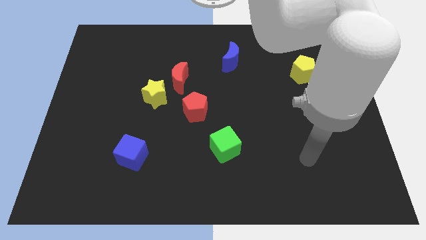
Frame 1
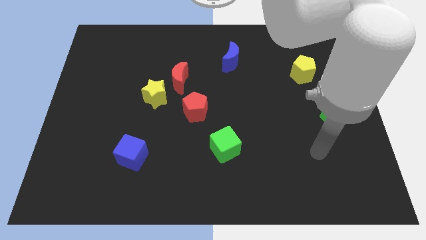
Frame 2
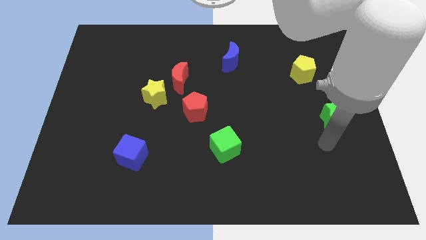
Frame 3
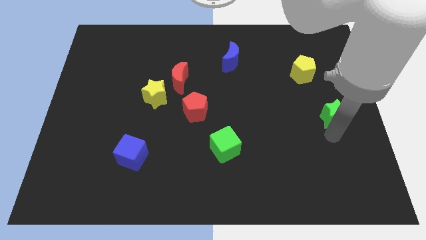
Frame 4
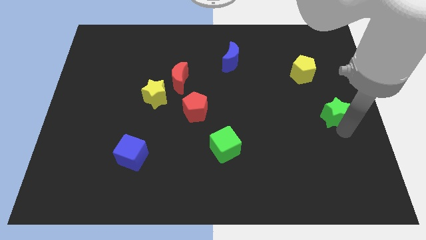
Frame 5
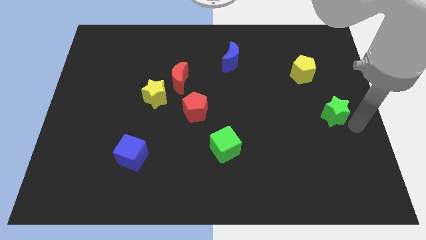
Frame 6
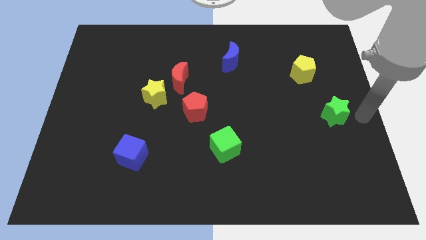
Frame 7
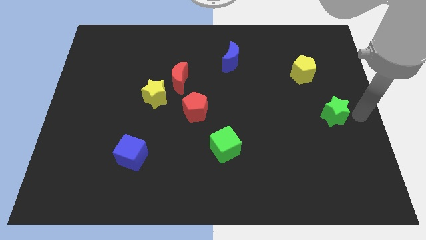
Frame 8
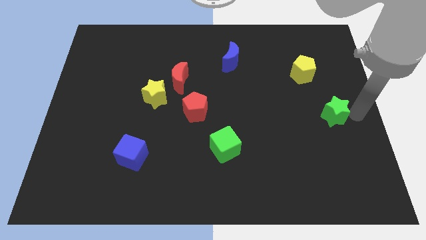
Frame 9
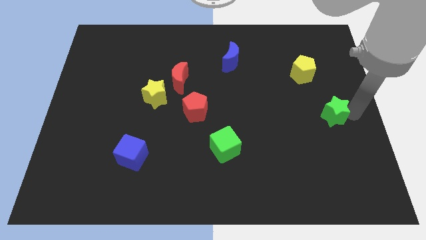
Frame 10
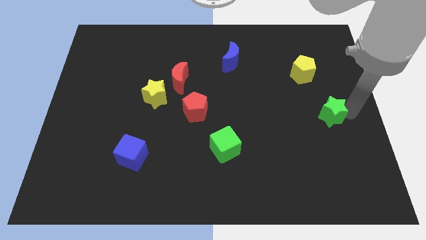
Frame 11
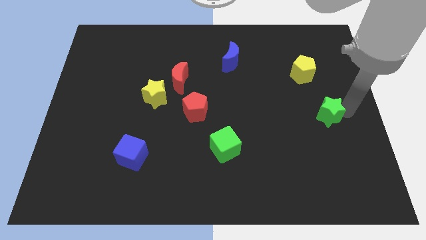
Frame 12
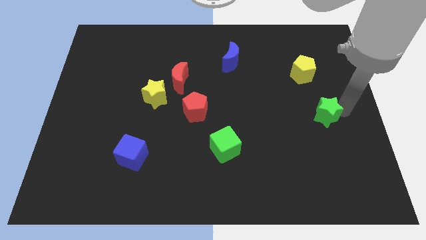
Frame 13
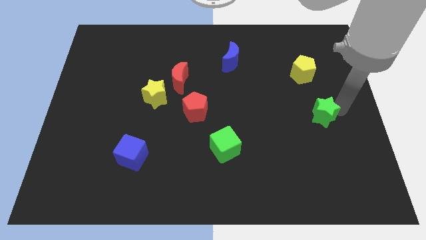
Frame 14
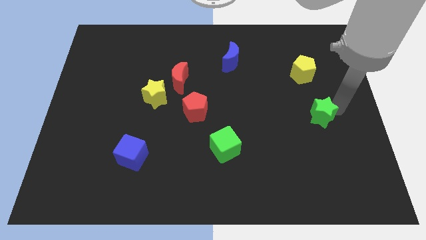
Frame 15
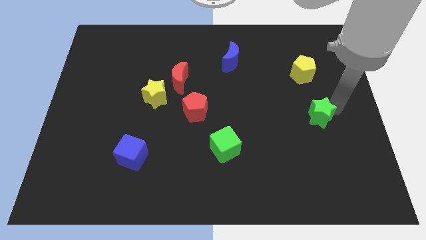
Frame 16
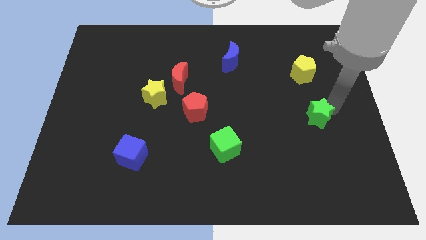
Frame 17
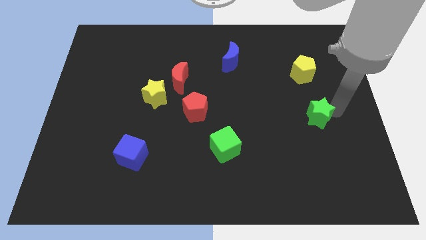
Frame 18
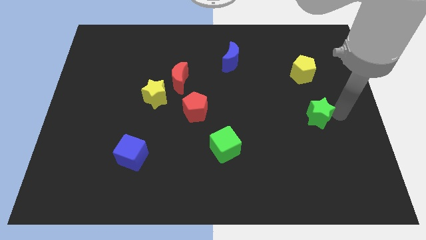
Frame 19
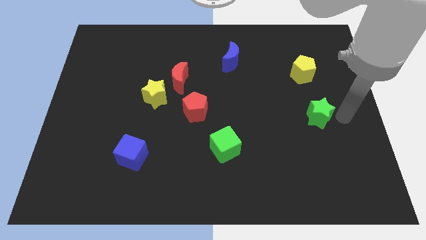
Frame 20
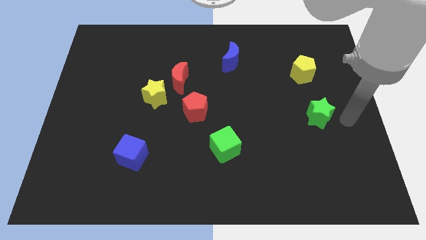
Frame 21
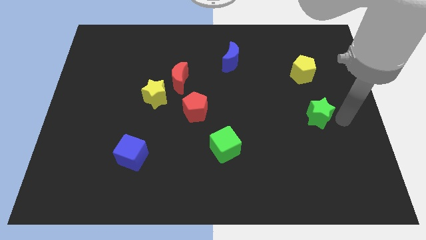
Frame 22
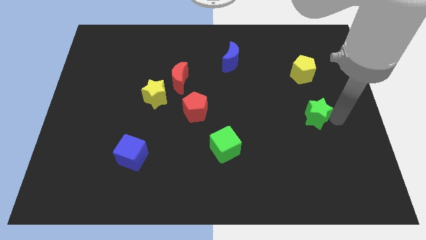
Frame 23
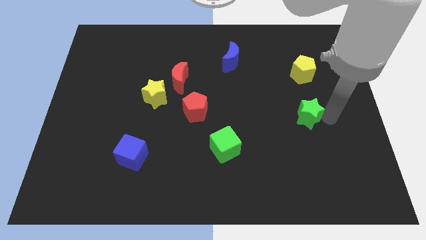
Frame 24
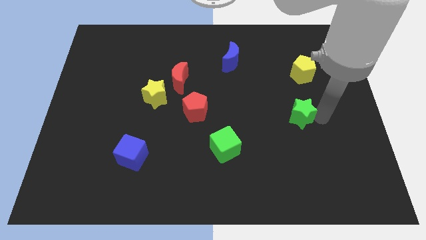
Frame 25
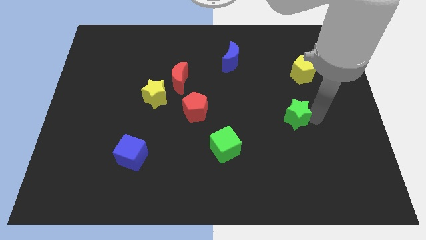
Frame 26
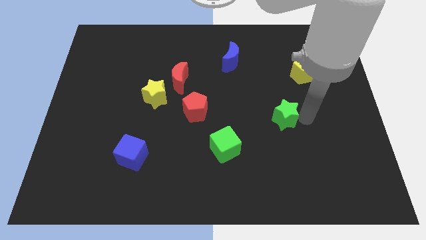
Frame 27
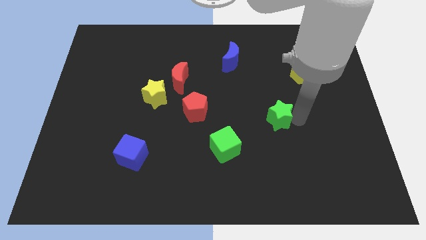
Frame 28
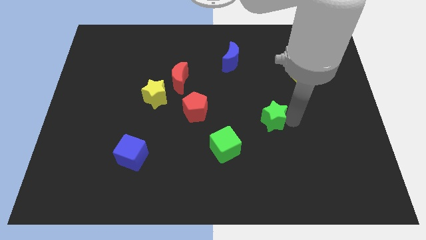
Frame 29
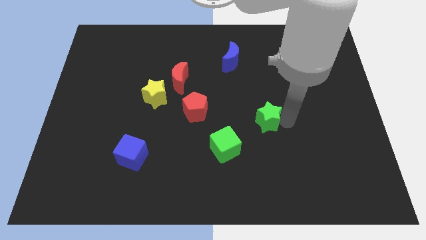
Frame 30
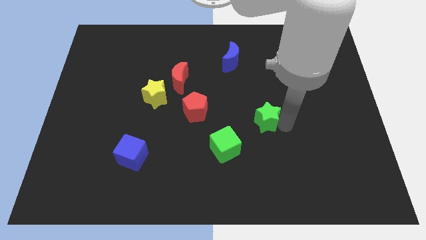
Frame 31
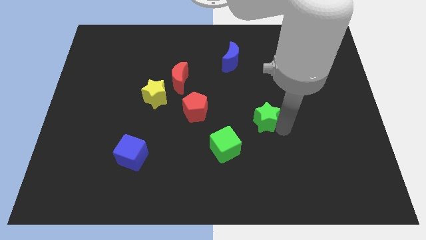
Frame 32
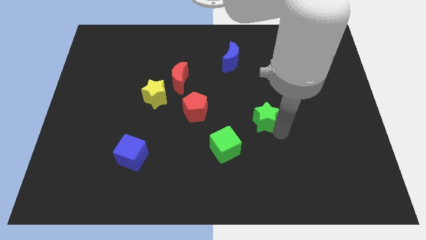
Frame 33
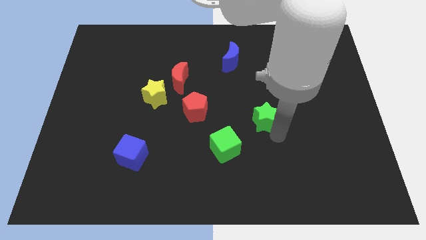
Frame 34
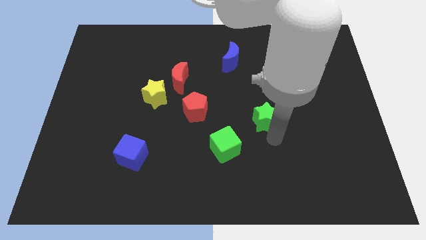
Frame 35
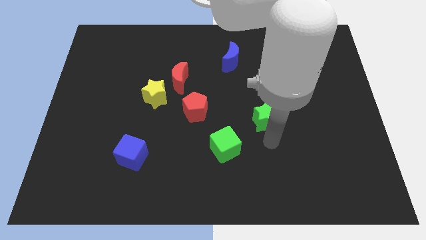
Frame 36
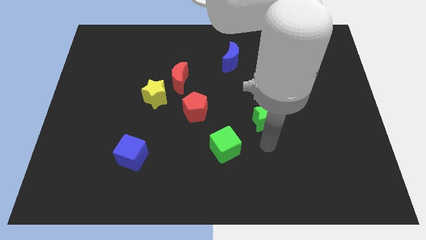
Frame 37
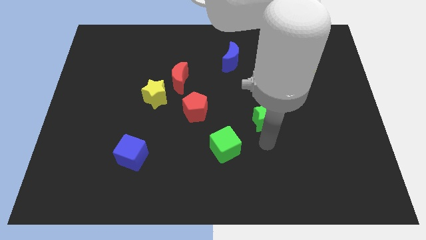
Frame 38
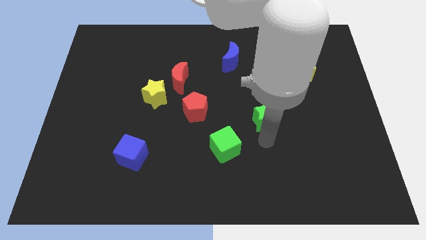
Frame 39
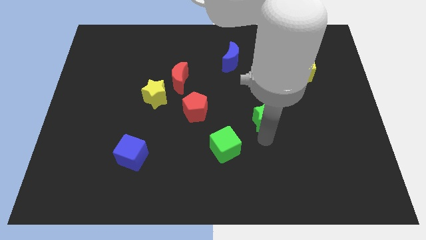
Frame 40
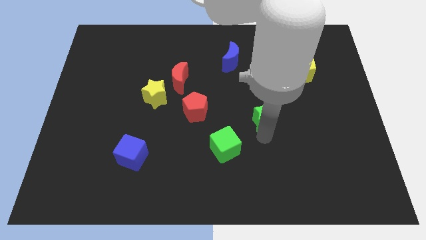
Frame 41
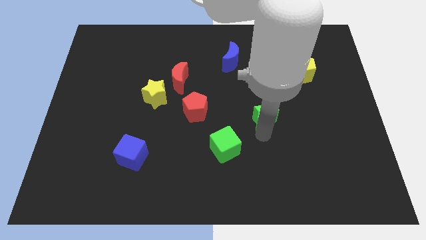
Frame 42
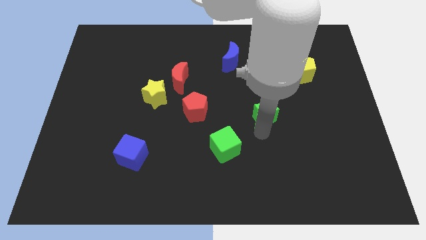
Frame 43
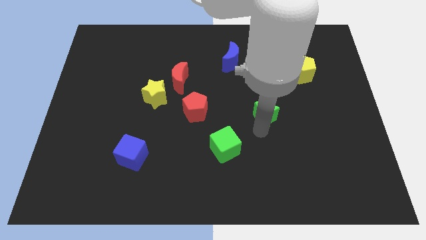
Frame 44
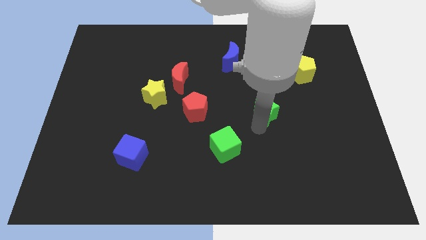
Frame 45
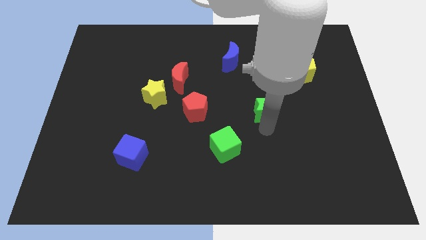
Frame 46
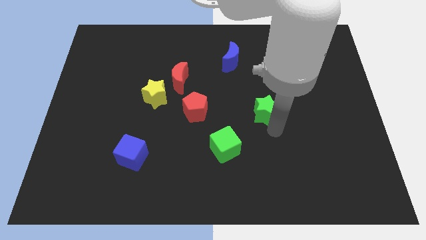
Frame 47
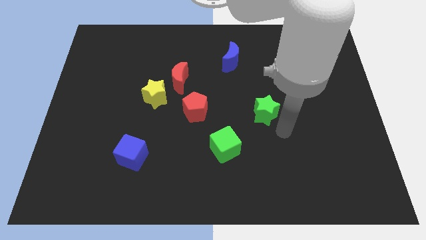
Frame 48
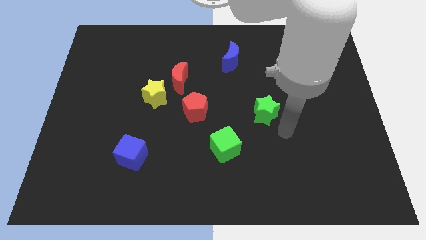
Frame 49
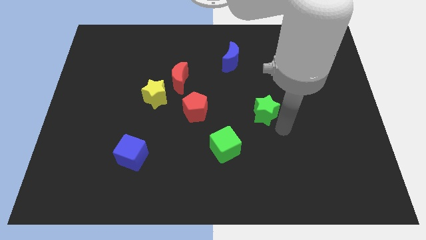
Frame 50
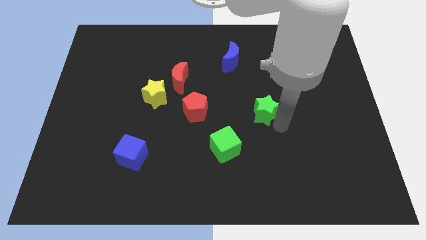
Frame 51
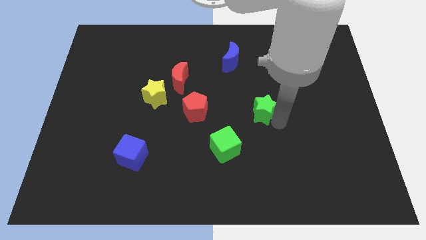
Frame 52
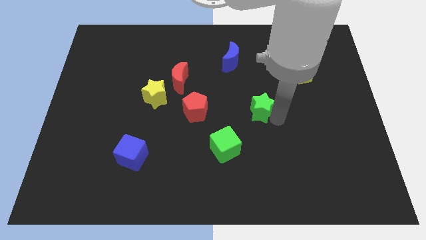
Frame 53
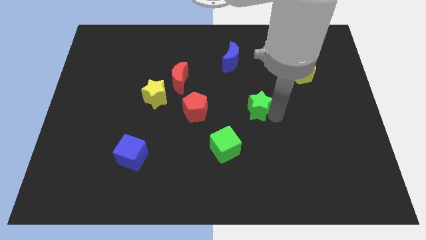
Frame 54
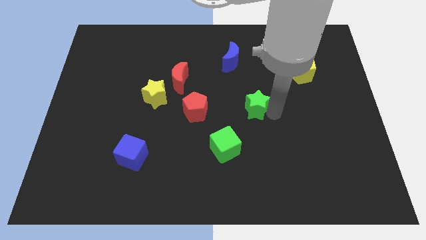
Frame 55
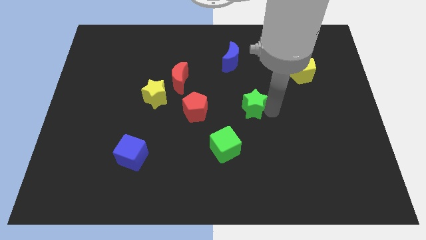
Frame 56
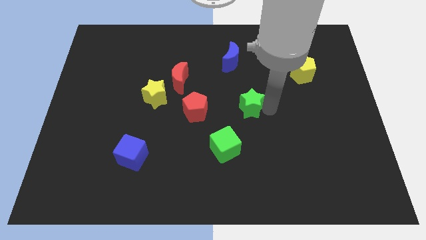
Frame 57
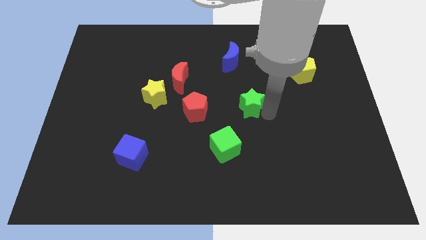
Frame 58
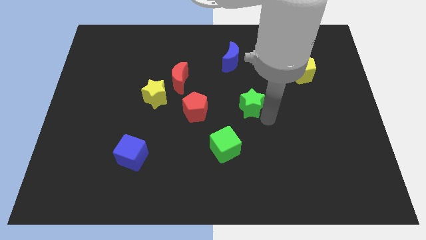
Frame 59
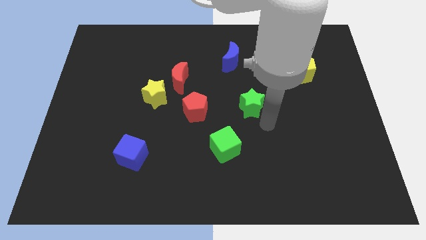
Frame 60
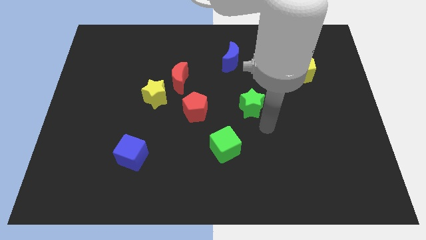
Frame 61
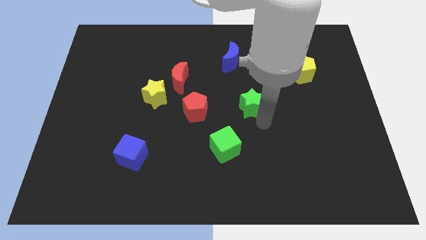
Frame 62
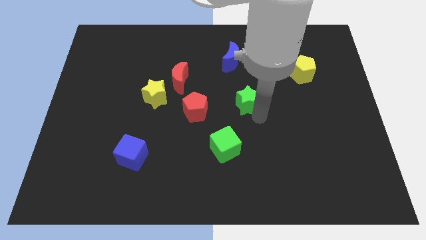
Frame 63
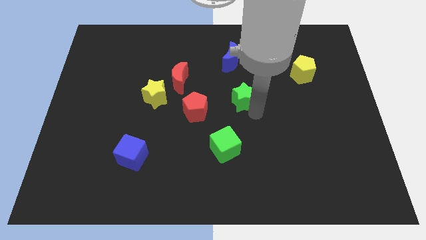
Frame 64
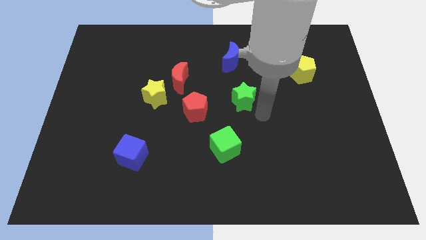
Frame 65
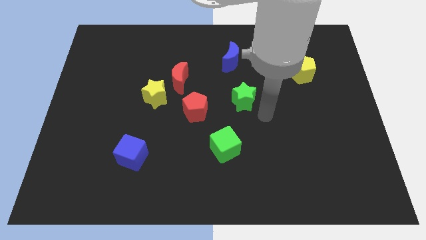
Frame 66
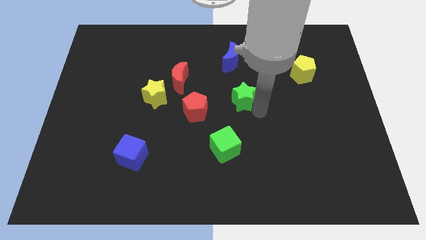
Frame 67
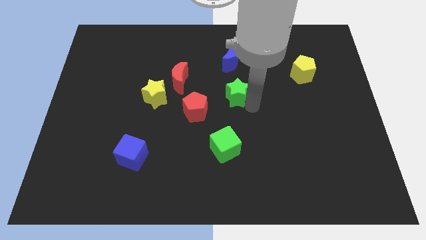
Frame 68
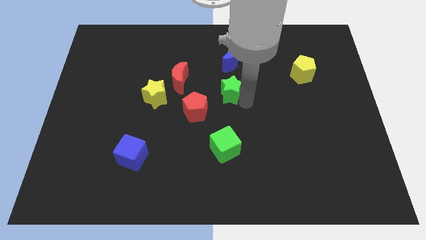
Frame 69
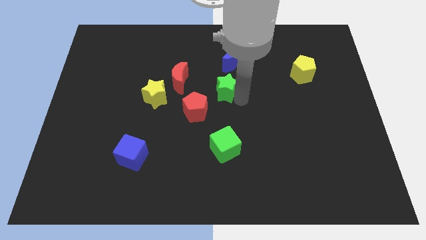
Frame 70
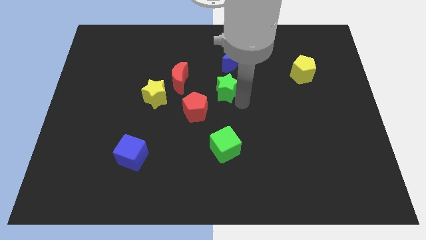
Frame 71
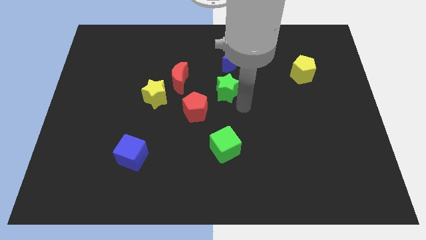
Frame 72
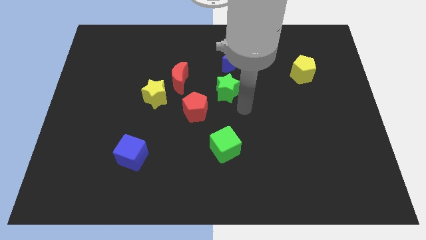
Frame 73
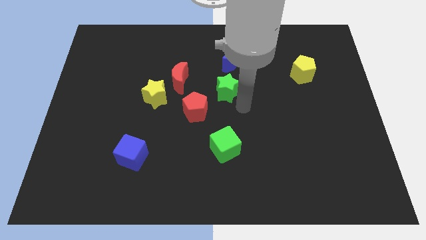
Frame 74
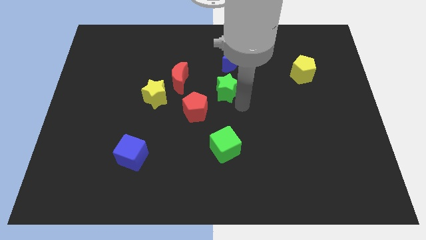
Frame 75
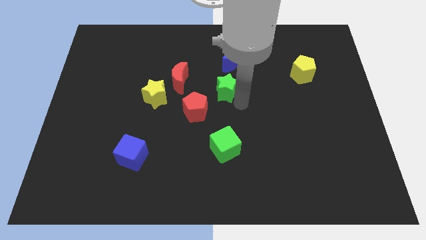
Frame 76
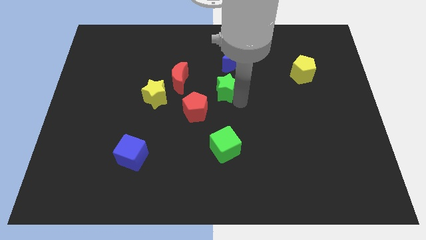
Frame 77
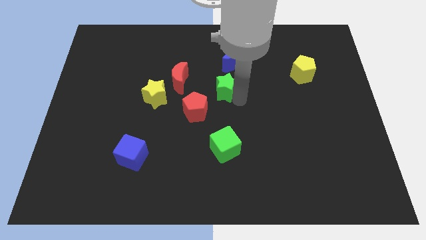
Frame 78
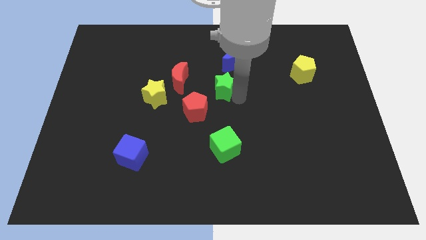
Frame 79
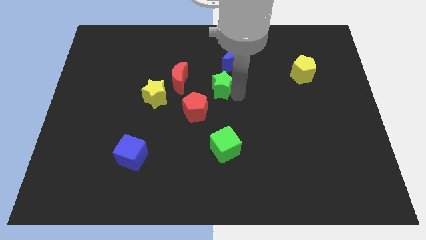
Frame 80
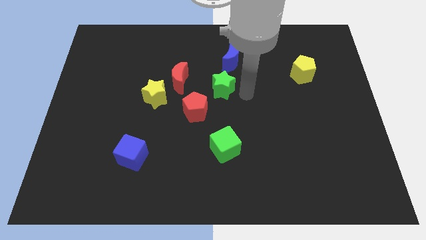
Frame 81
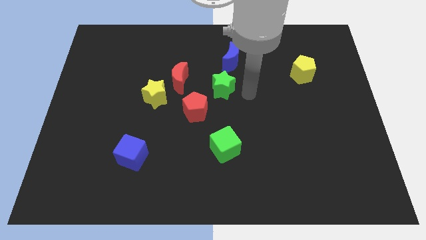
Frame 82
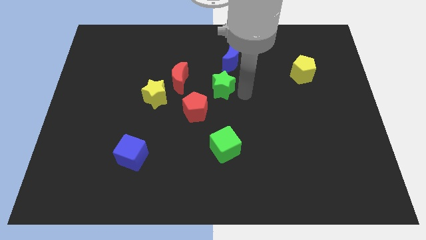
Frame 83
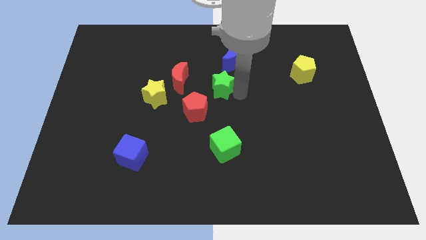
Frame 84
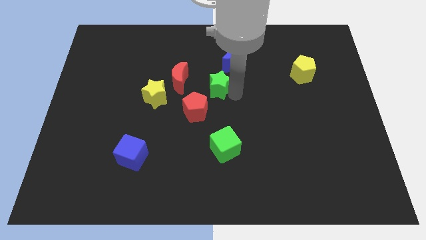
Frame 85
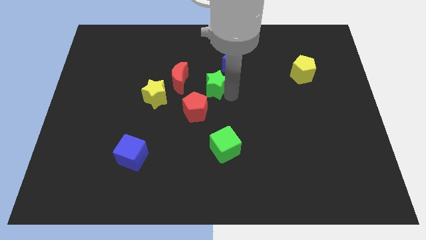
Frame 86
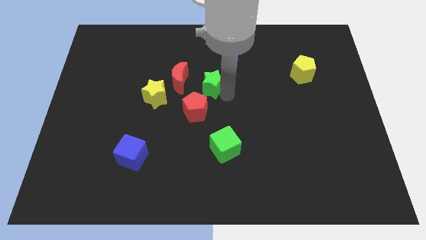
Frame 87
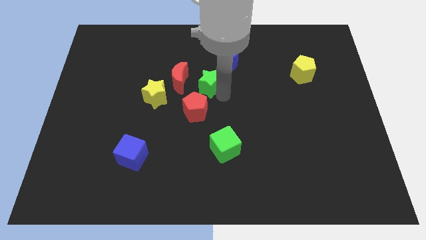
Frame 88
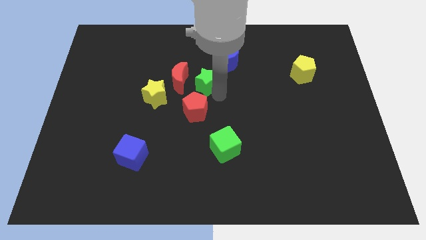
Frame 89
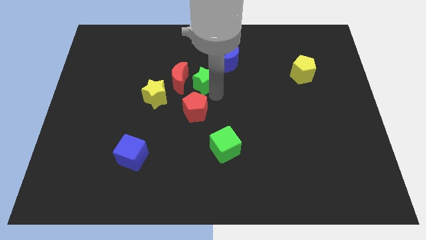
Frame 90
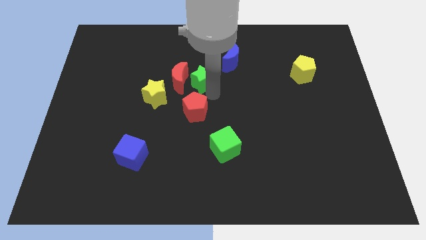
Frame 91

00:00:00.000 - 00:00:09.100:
put the green star close to the red moon
